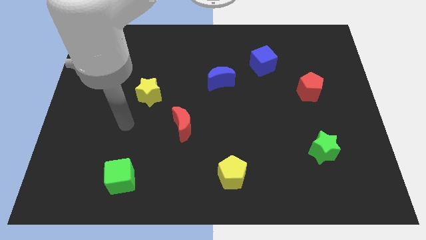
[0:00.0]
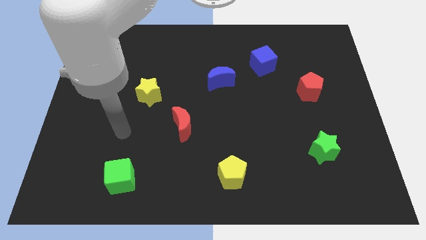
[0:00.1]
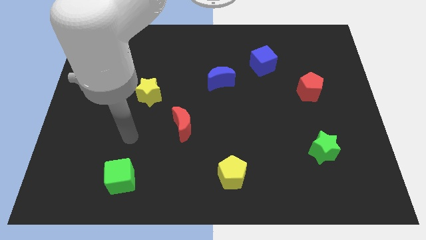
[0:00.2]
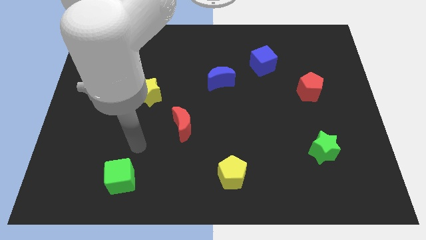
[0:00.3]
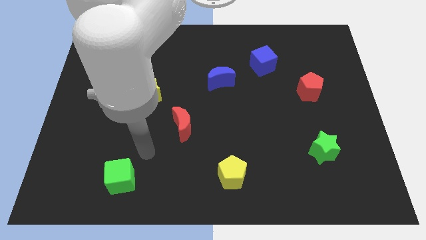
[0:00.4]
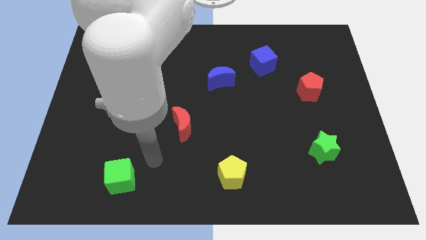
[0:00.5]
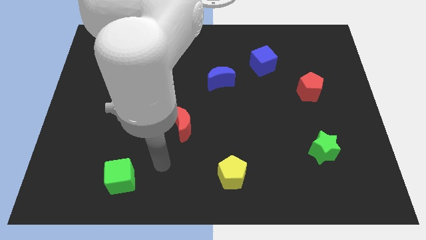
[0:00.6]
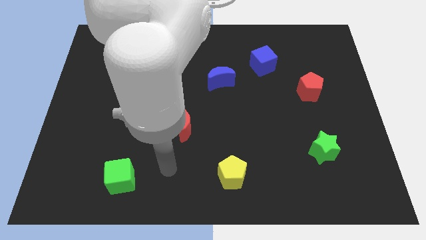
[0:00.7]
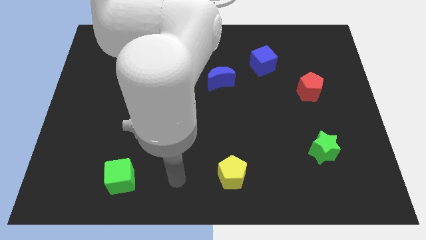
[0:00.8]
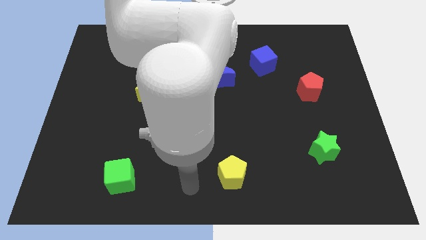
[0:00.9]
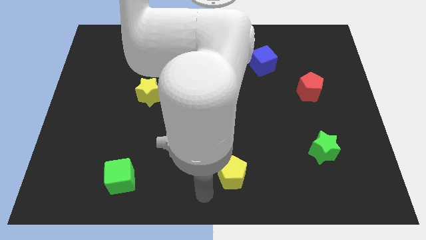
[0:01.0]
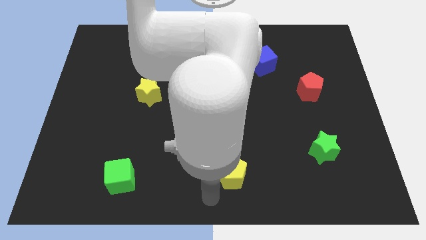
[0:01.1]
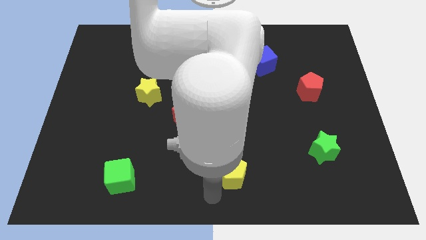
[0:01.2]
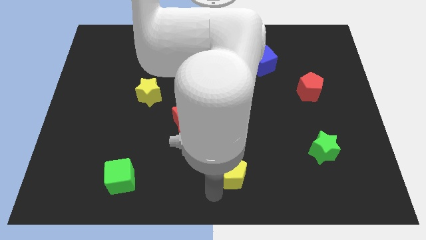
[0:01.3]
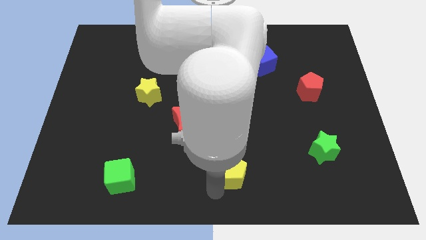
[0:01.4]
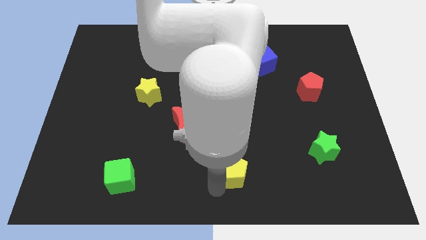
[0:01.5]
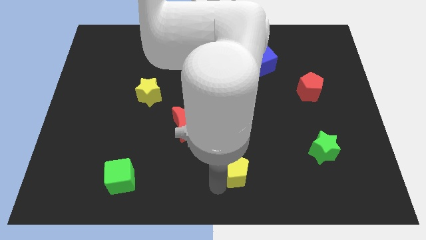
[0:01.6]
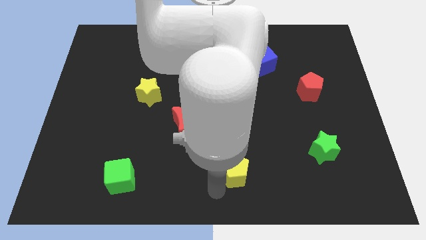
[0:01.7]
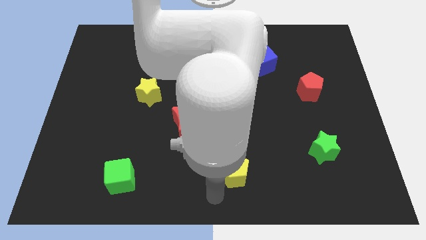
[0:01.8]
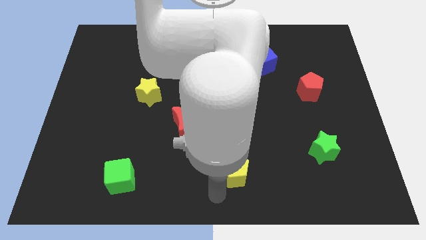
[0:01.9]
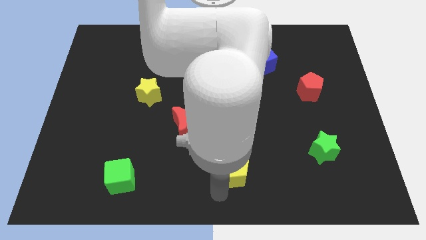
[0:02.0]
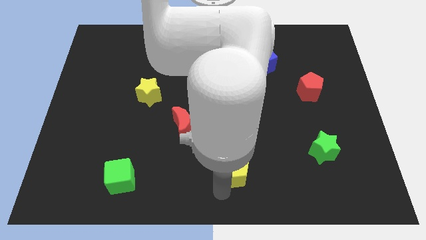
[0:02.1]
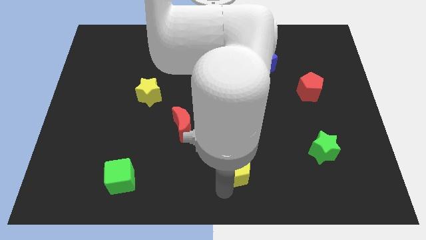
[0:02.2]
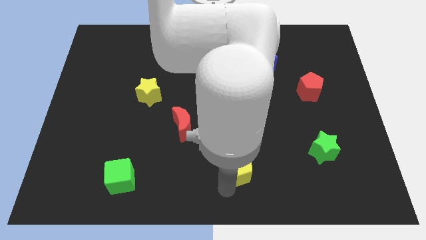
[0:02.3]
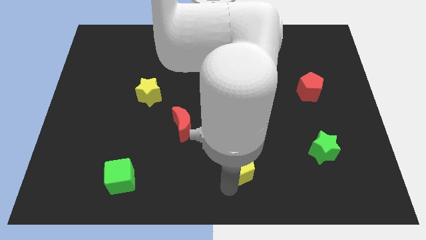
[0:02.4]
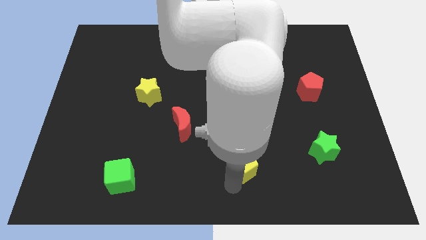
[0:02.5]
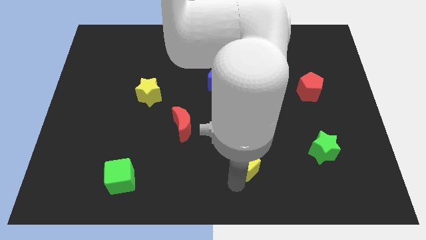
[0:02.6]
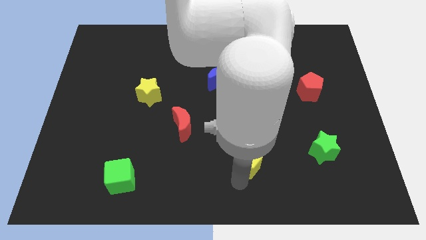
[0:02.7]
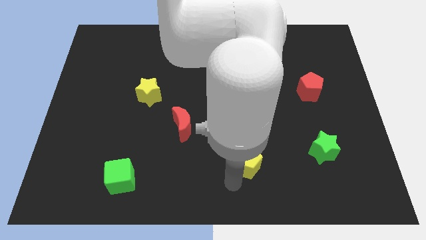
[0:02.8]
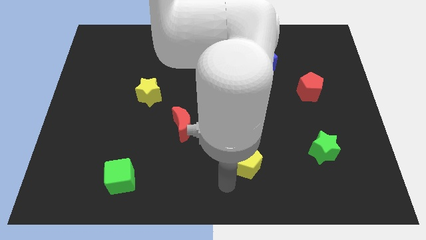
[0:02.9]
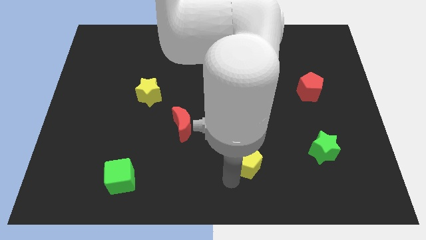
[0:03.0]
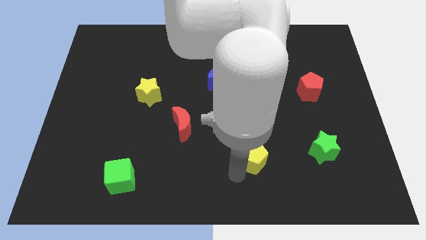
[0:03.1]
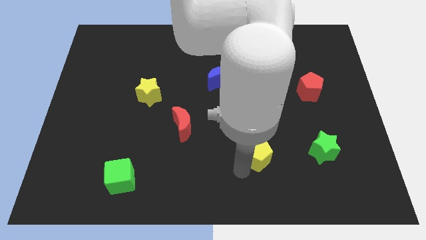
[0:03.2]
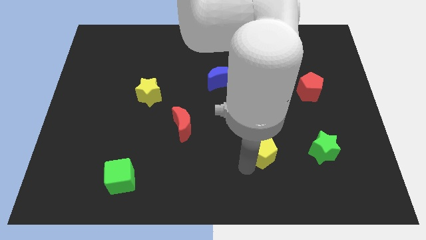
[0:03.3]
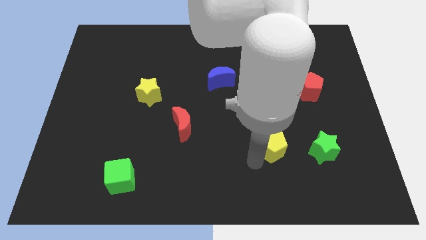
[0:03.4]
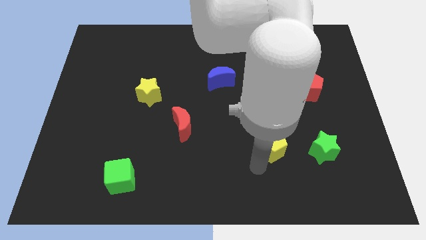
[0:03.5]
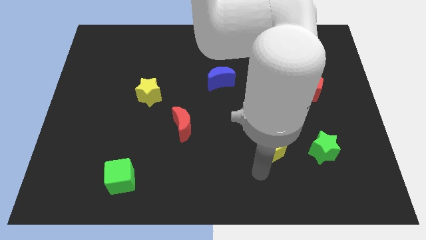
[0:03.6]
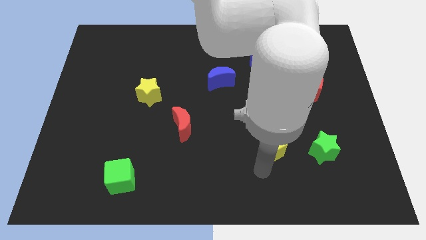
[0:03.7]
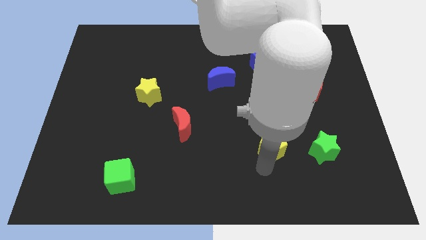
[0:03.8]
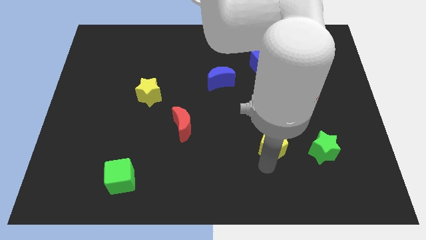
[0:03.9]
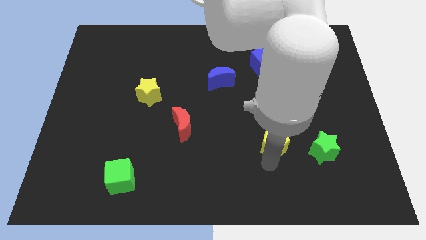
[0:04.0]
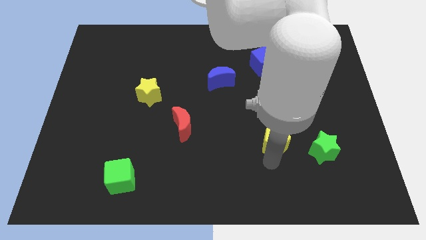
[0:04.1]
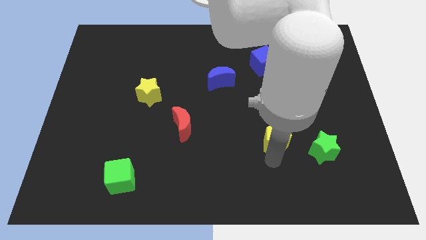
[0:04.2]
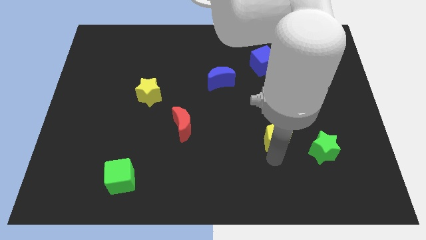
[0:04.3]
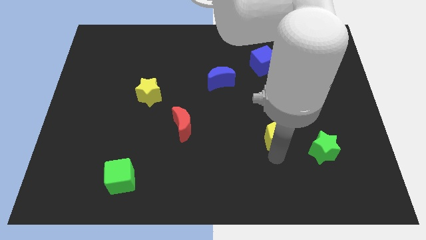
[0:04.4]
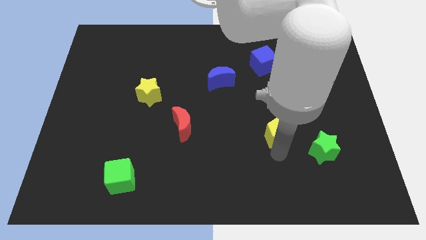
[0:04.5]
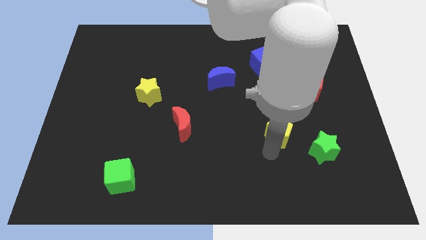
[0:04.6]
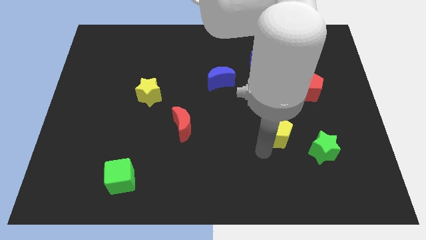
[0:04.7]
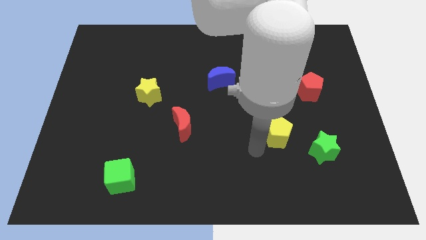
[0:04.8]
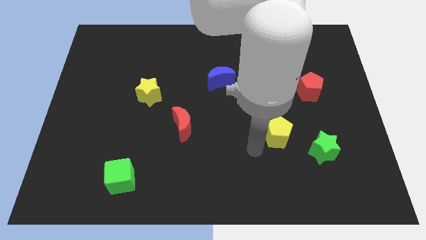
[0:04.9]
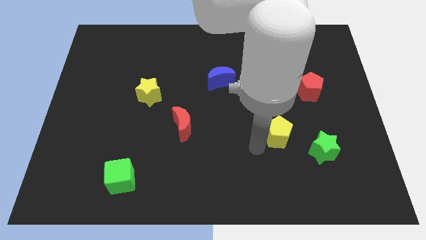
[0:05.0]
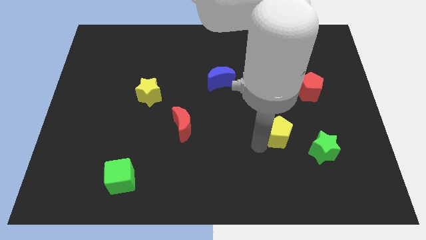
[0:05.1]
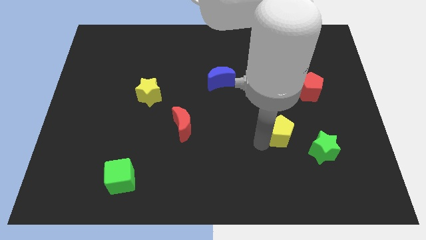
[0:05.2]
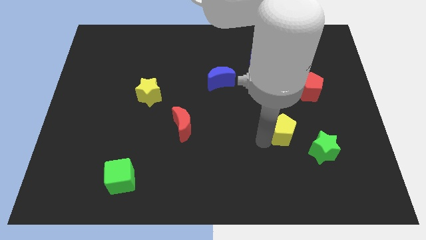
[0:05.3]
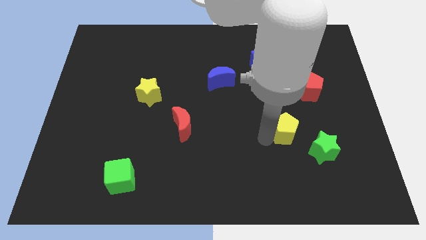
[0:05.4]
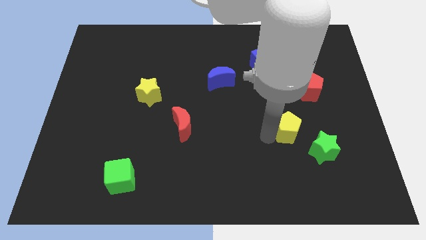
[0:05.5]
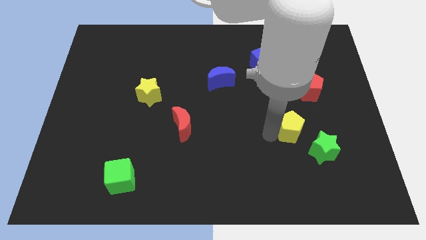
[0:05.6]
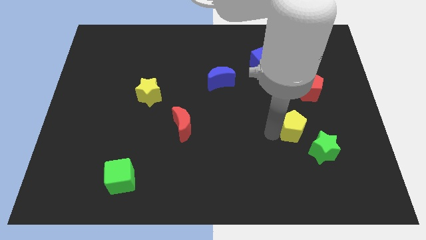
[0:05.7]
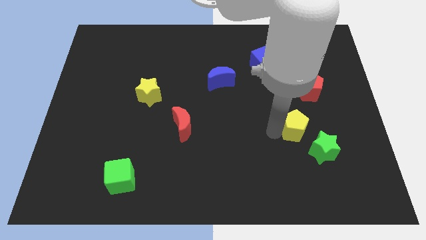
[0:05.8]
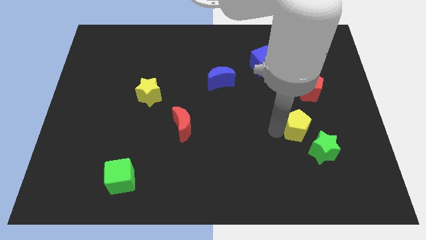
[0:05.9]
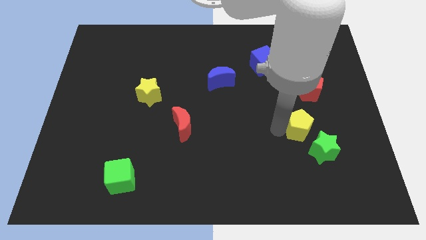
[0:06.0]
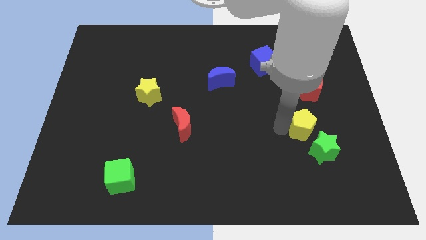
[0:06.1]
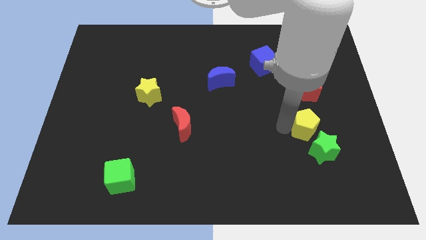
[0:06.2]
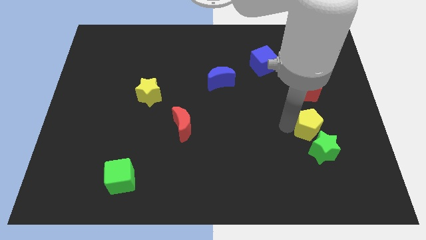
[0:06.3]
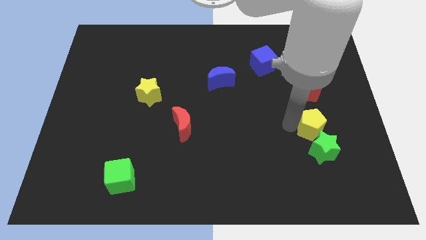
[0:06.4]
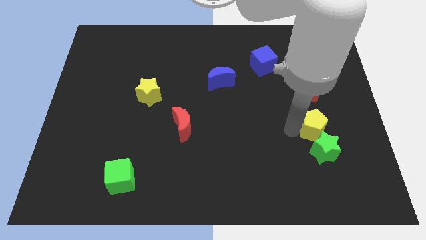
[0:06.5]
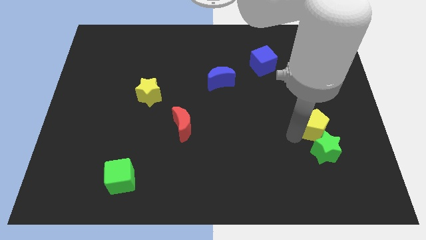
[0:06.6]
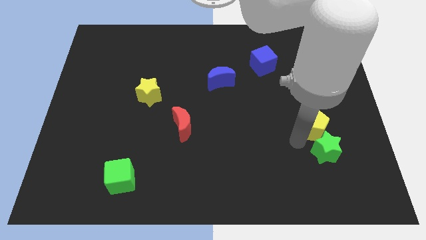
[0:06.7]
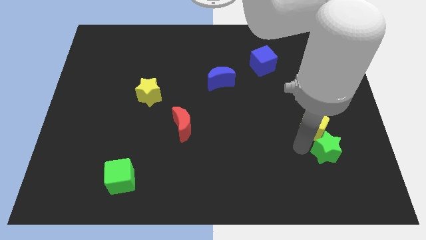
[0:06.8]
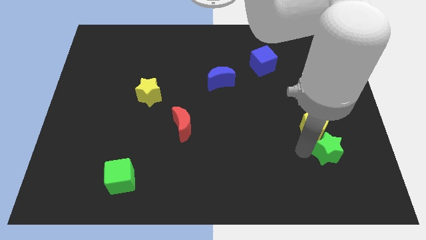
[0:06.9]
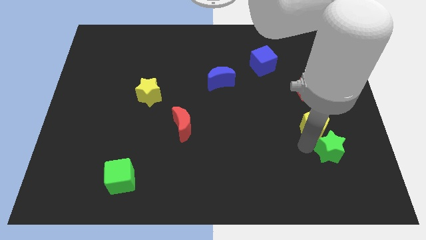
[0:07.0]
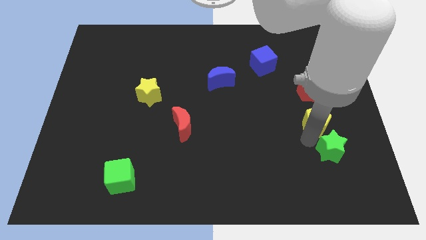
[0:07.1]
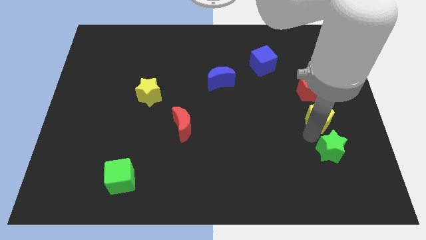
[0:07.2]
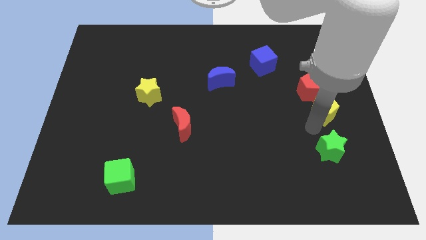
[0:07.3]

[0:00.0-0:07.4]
push the yellow pentagon to the right side
